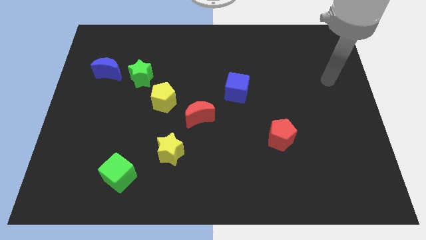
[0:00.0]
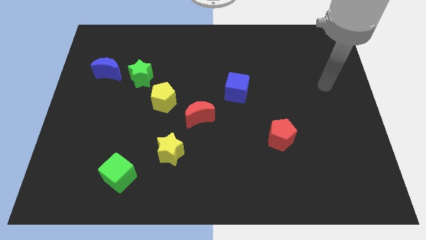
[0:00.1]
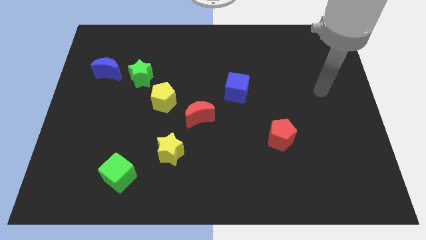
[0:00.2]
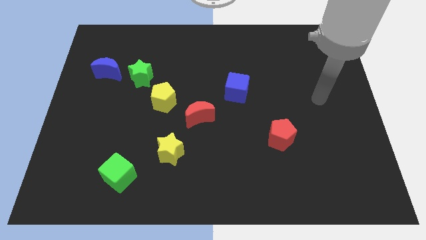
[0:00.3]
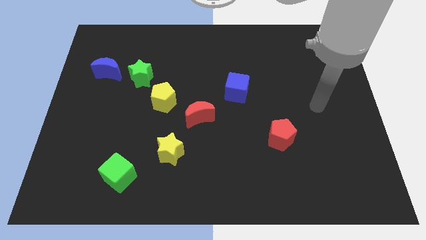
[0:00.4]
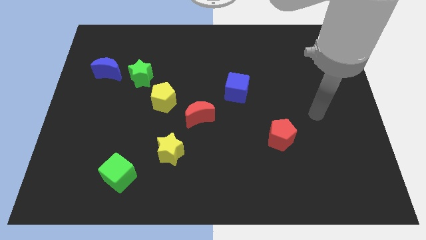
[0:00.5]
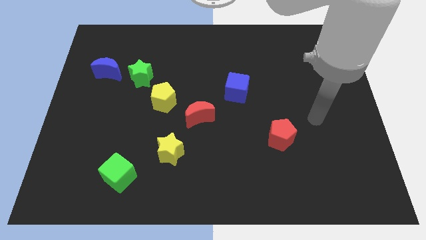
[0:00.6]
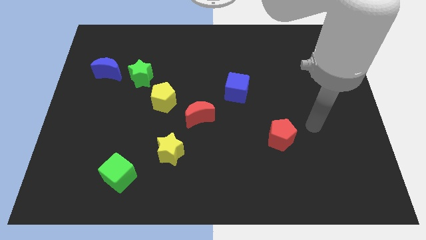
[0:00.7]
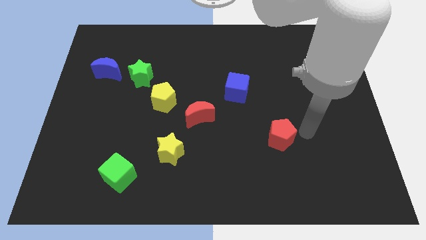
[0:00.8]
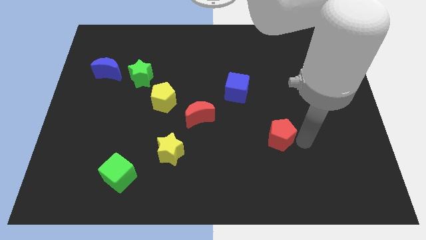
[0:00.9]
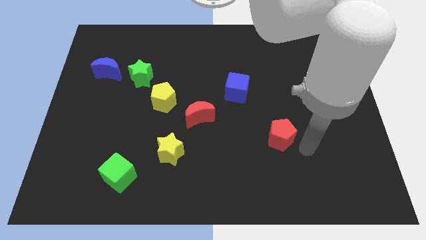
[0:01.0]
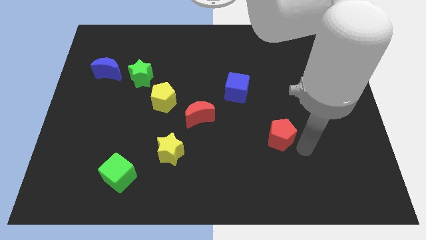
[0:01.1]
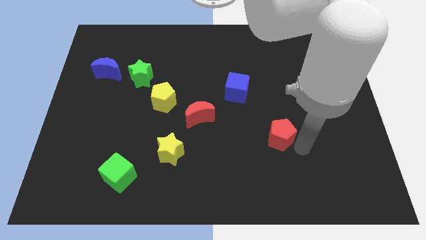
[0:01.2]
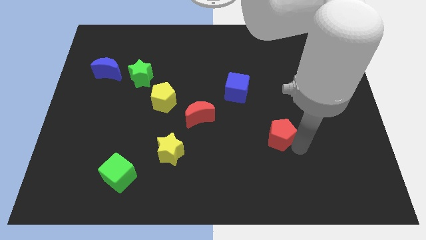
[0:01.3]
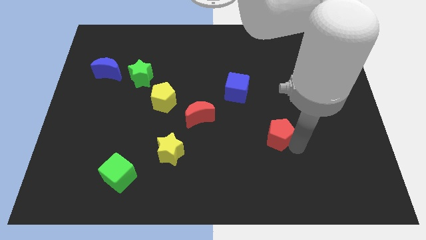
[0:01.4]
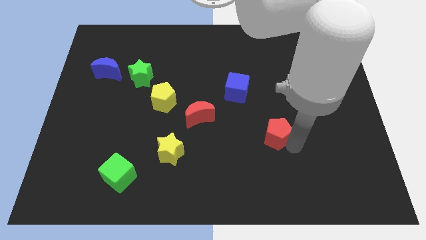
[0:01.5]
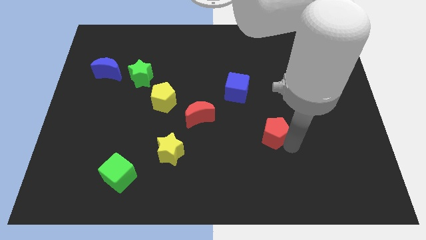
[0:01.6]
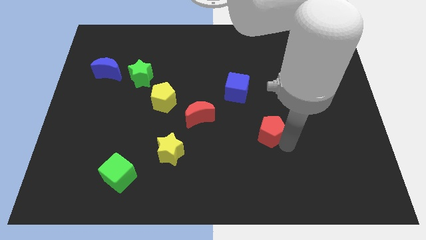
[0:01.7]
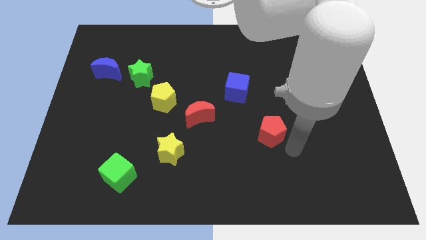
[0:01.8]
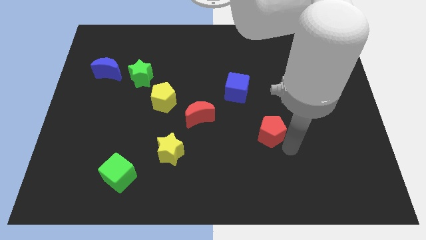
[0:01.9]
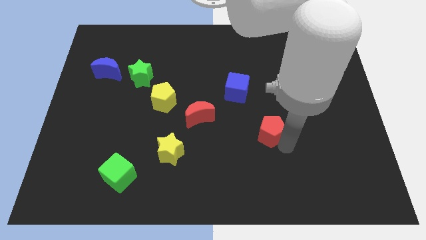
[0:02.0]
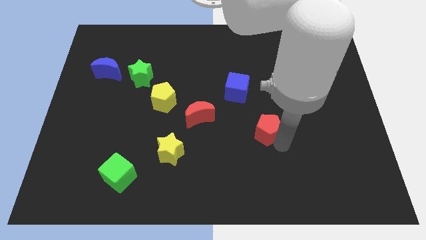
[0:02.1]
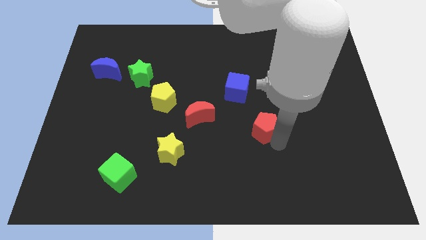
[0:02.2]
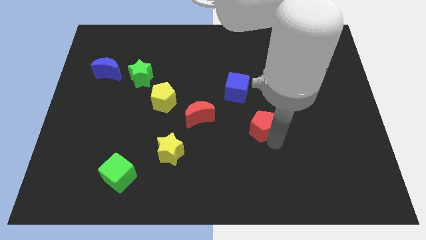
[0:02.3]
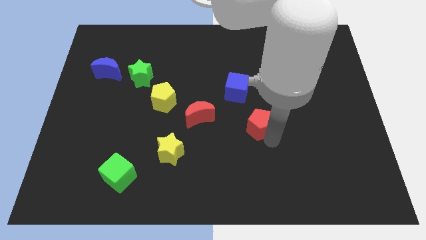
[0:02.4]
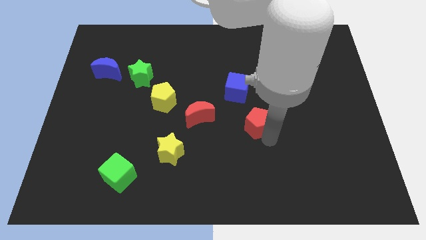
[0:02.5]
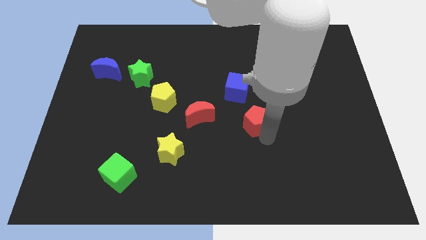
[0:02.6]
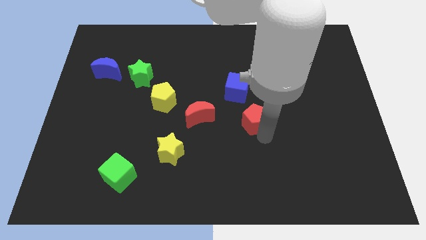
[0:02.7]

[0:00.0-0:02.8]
slide the red pentagon somewhat diagonally up and to the left

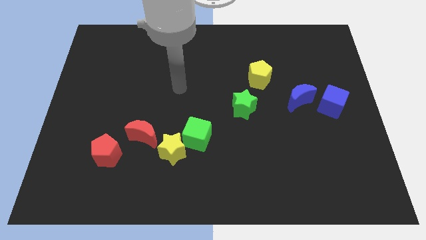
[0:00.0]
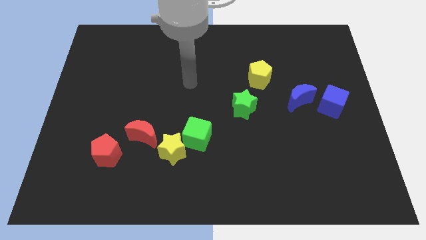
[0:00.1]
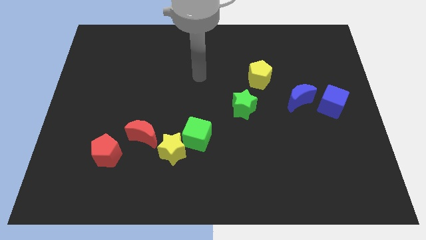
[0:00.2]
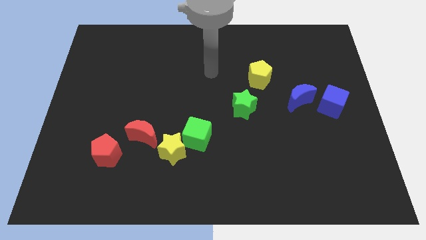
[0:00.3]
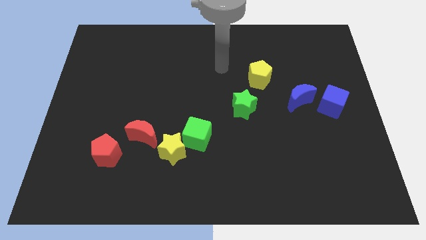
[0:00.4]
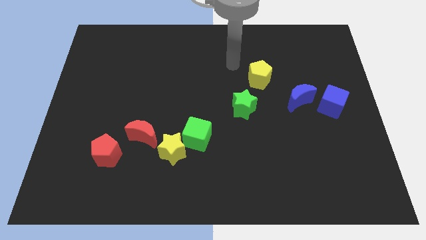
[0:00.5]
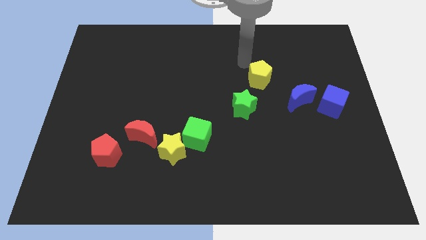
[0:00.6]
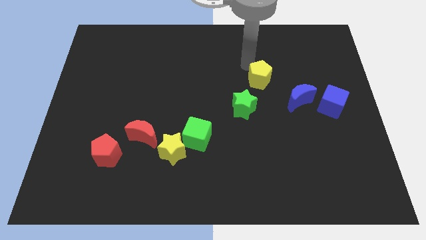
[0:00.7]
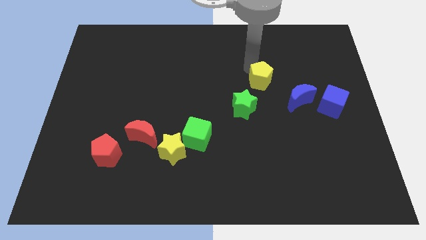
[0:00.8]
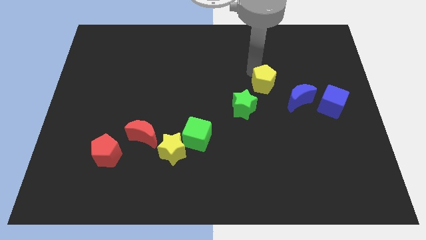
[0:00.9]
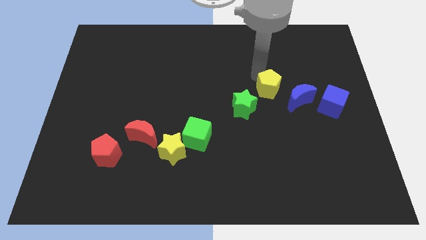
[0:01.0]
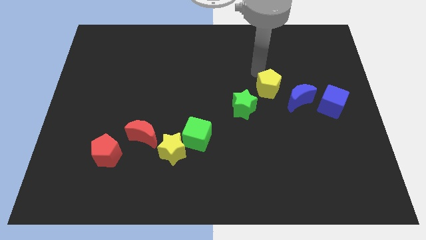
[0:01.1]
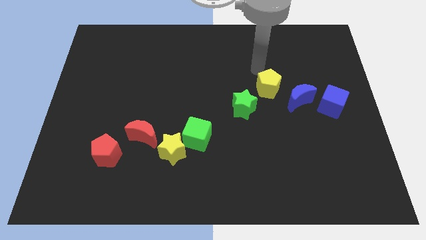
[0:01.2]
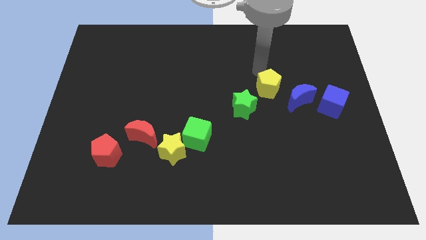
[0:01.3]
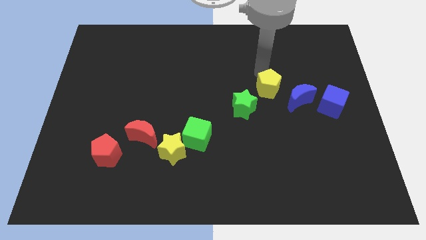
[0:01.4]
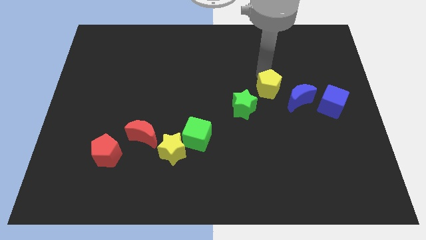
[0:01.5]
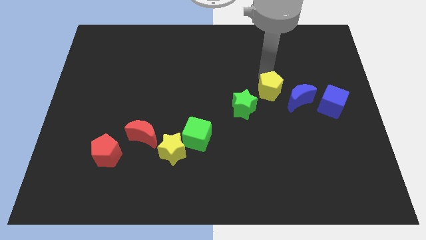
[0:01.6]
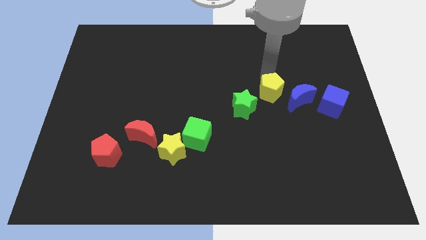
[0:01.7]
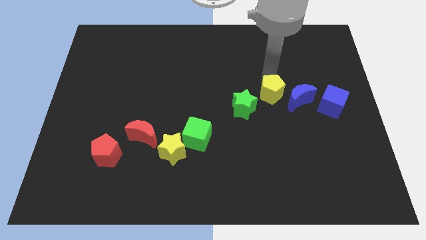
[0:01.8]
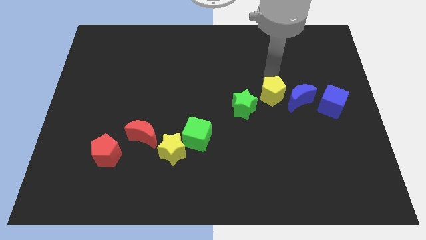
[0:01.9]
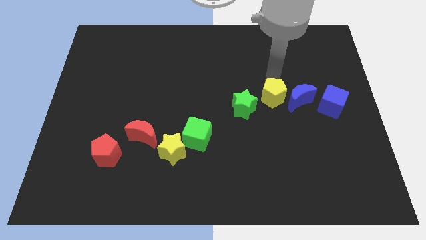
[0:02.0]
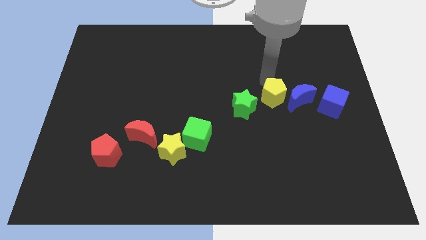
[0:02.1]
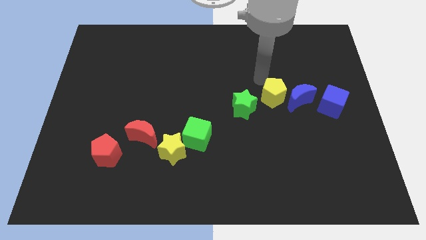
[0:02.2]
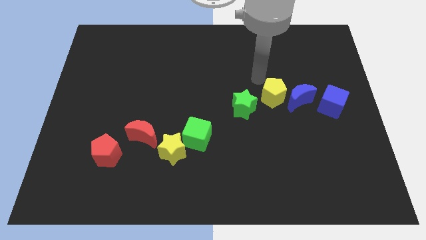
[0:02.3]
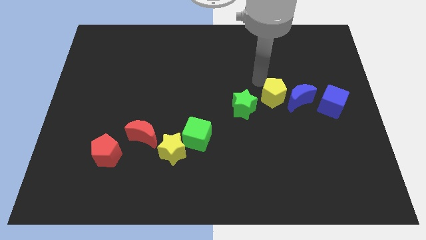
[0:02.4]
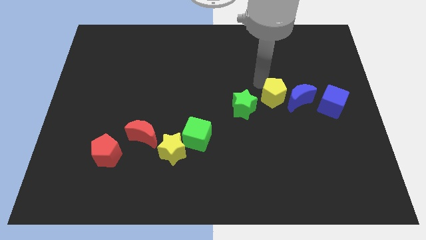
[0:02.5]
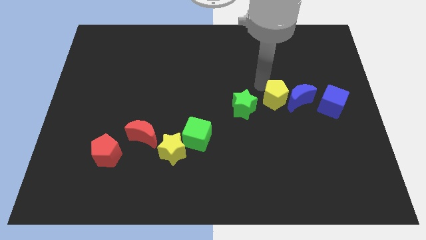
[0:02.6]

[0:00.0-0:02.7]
push the yellow pentagon down and right a bit

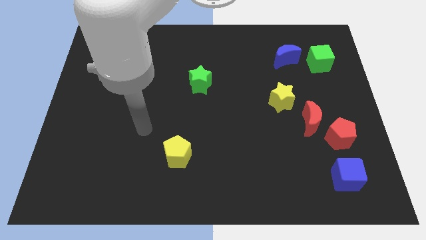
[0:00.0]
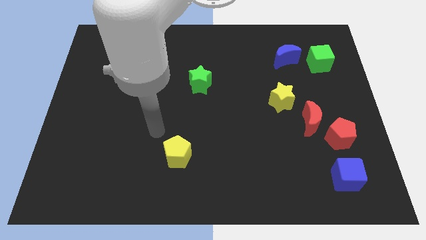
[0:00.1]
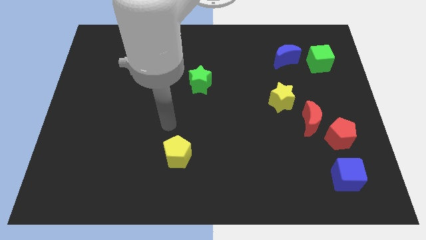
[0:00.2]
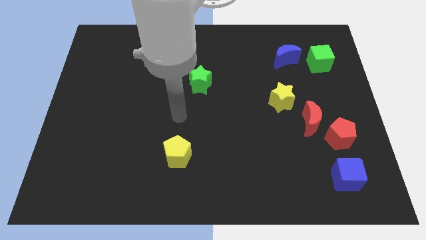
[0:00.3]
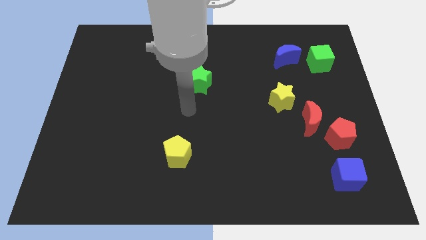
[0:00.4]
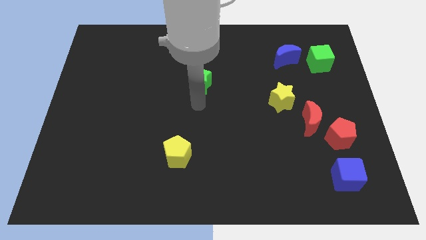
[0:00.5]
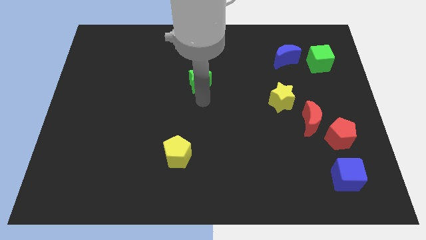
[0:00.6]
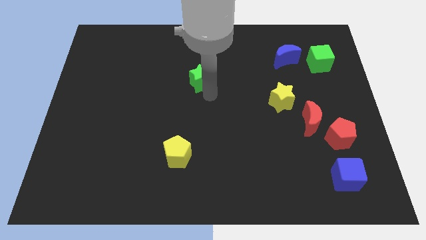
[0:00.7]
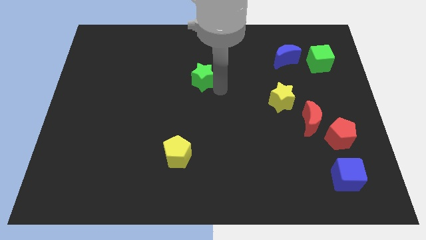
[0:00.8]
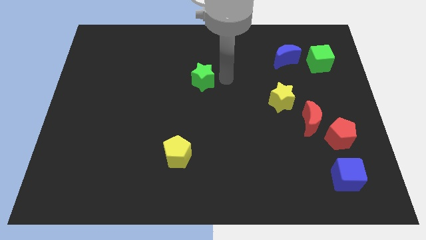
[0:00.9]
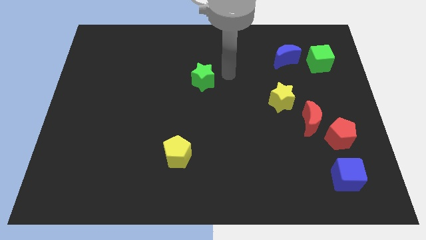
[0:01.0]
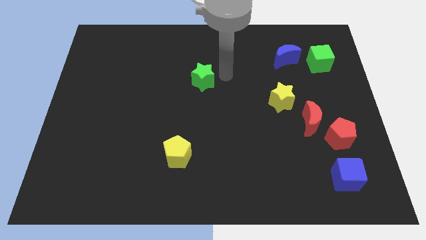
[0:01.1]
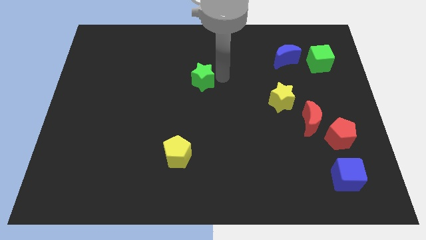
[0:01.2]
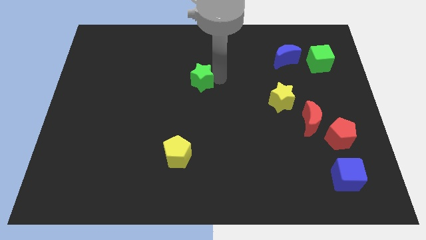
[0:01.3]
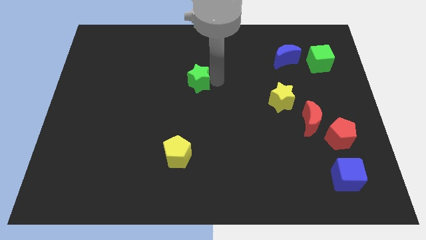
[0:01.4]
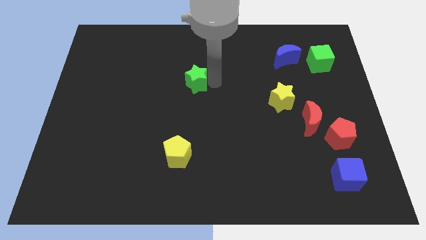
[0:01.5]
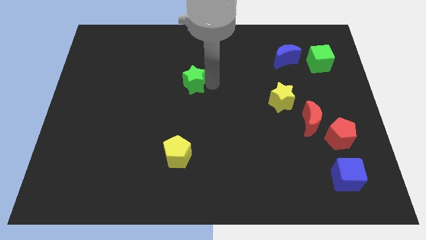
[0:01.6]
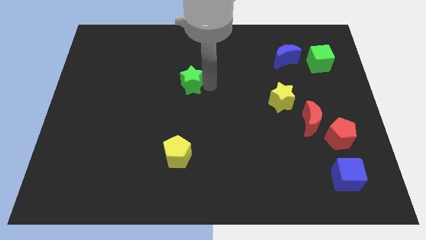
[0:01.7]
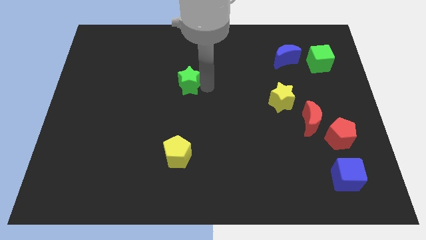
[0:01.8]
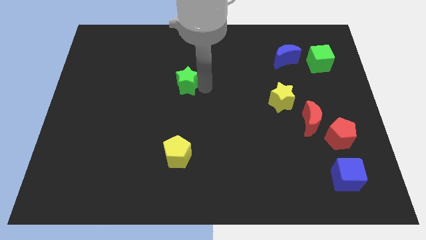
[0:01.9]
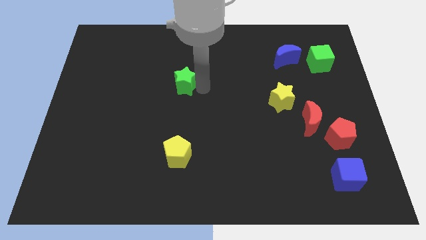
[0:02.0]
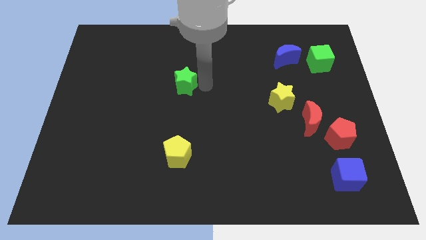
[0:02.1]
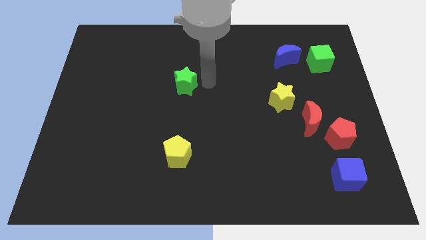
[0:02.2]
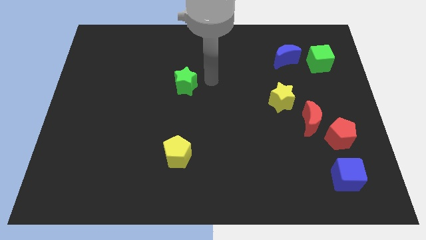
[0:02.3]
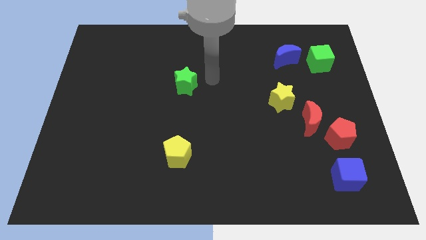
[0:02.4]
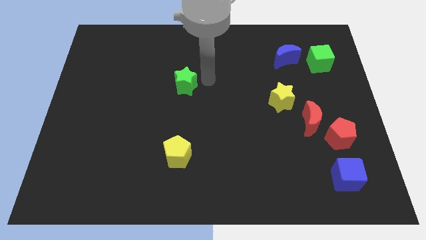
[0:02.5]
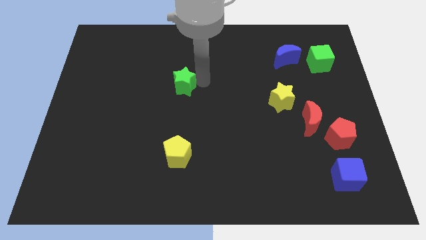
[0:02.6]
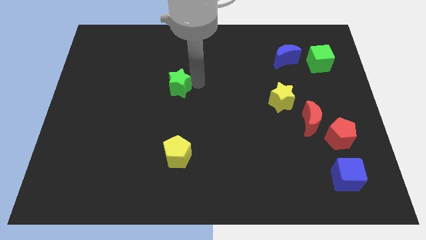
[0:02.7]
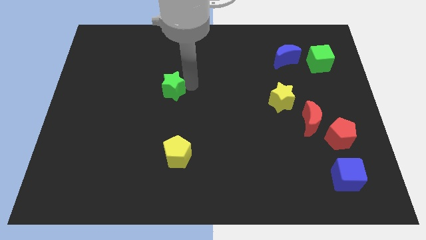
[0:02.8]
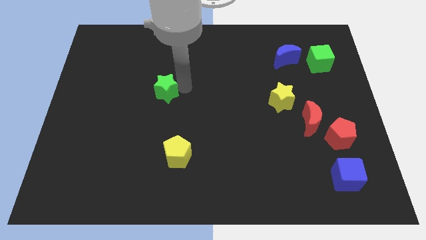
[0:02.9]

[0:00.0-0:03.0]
slightly slide the green star to the left
